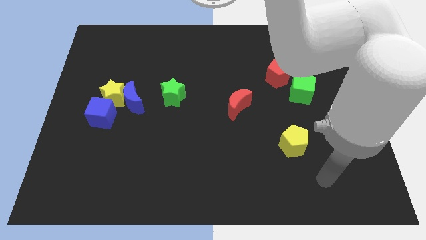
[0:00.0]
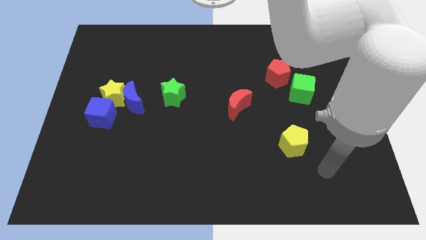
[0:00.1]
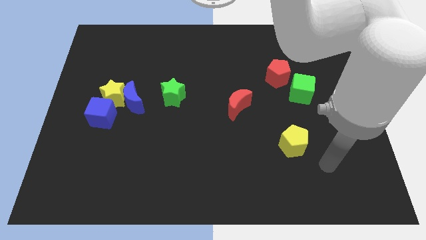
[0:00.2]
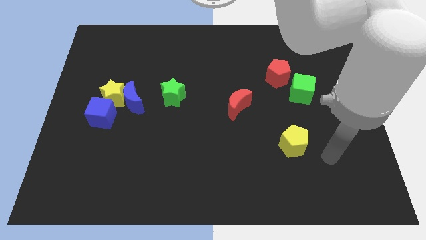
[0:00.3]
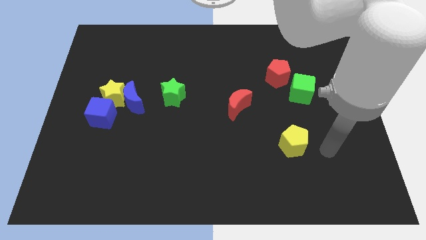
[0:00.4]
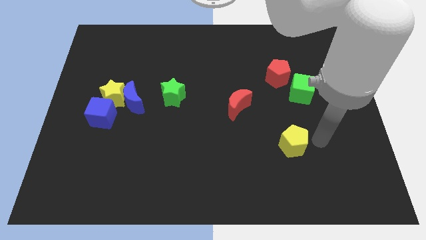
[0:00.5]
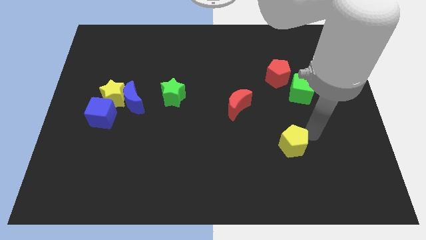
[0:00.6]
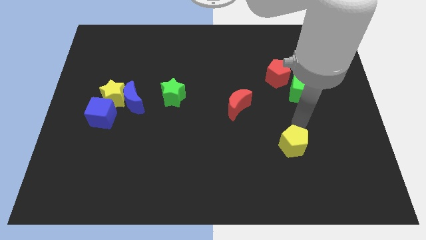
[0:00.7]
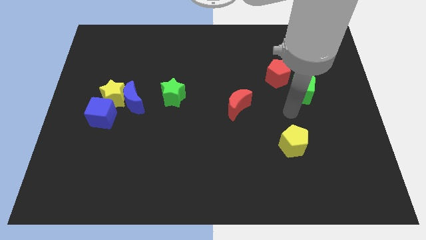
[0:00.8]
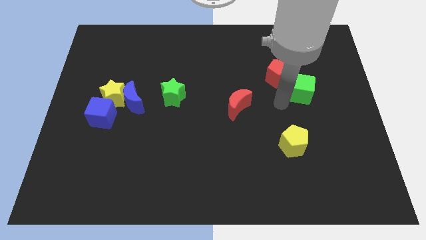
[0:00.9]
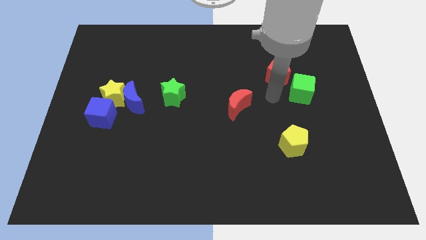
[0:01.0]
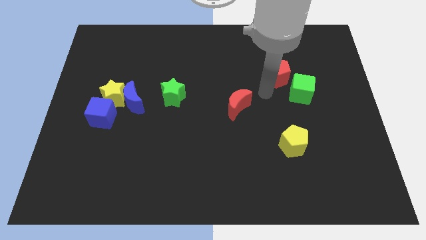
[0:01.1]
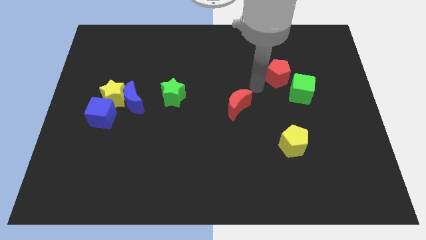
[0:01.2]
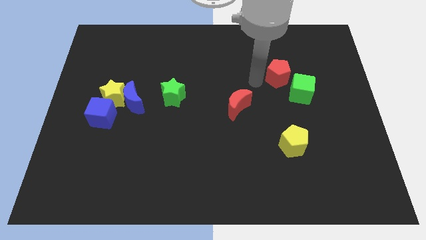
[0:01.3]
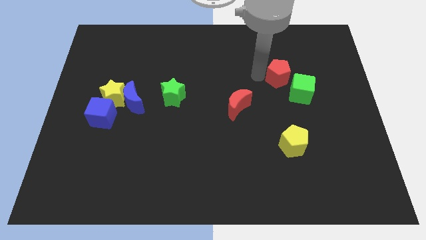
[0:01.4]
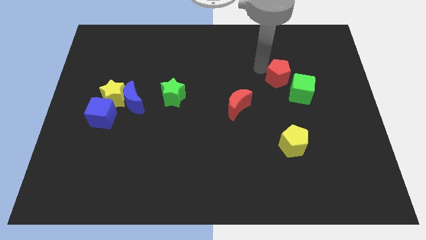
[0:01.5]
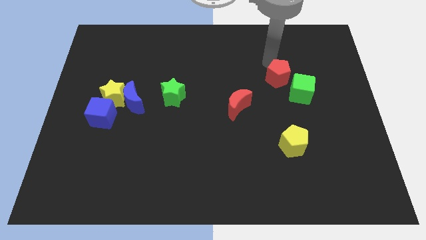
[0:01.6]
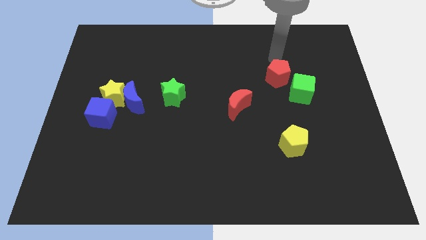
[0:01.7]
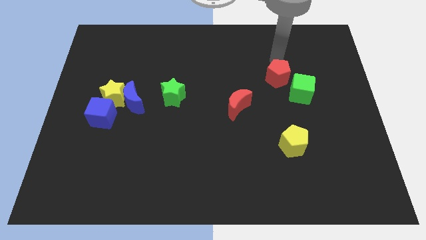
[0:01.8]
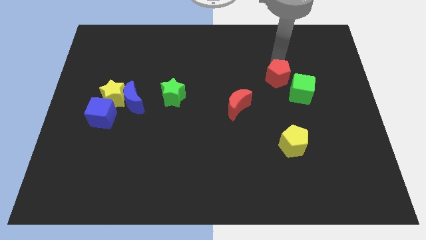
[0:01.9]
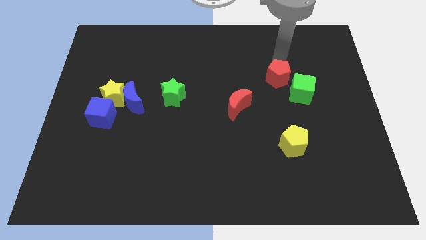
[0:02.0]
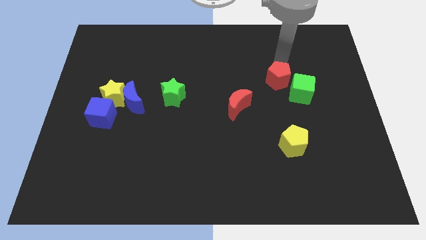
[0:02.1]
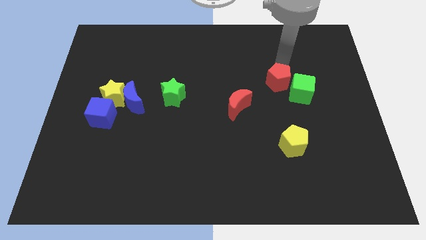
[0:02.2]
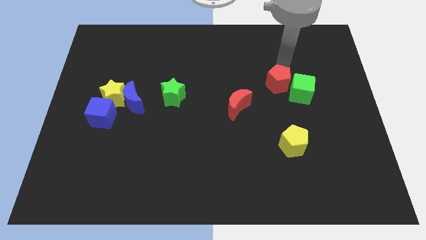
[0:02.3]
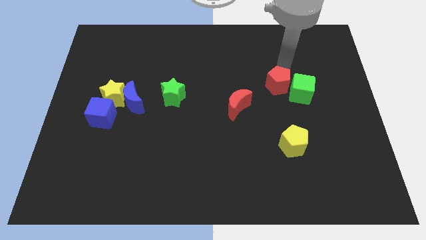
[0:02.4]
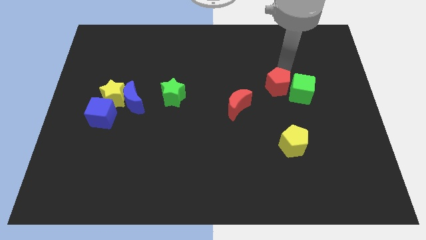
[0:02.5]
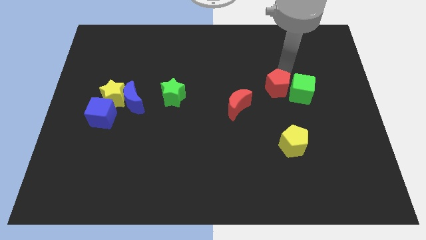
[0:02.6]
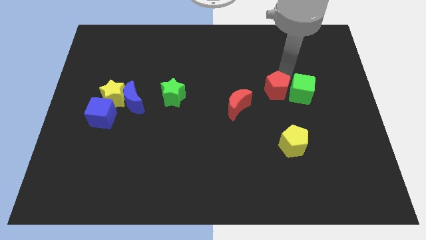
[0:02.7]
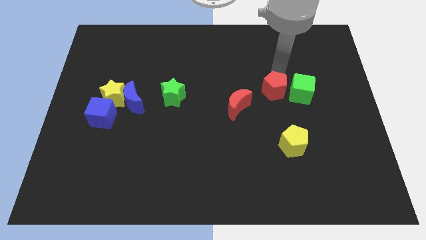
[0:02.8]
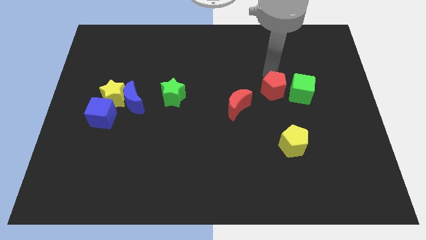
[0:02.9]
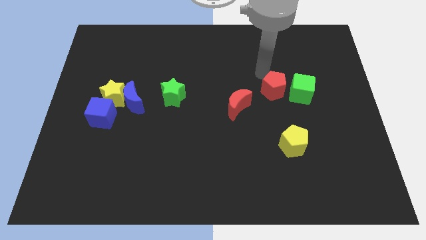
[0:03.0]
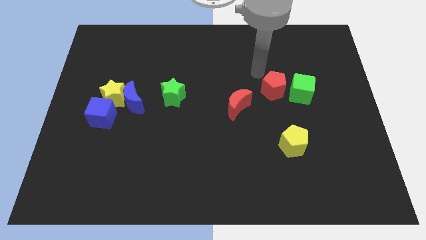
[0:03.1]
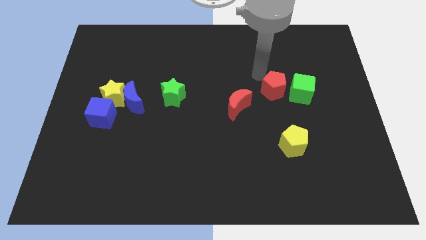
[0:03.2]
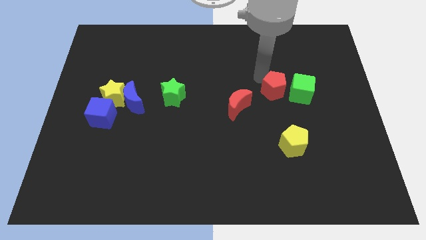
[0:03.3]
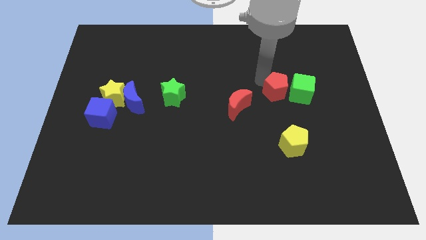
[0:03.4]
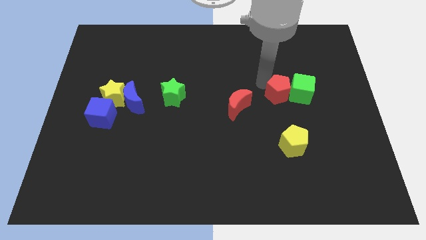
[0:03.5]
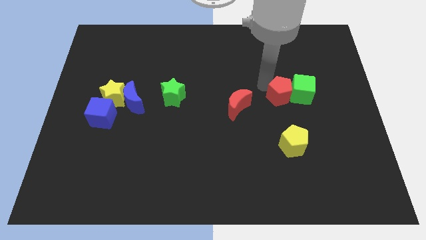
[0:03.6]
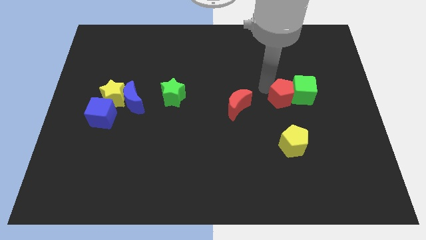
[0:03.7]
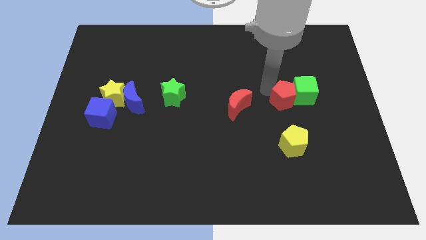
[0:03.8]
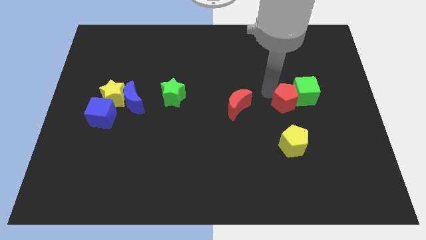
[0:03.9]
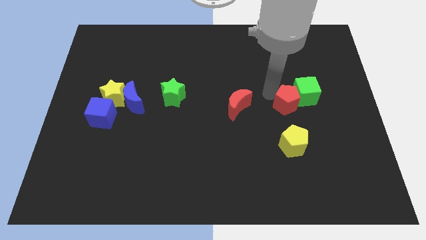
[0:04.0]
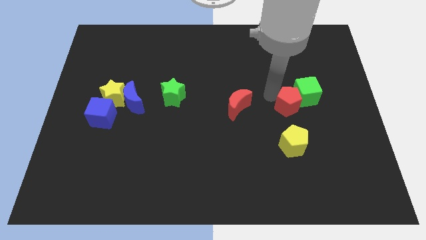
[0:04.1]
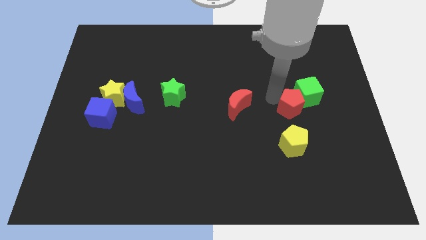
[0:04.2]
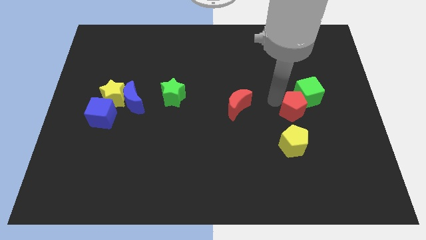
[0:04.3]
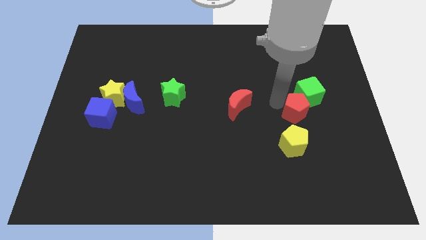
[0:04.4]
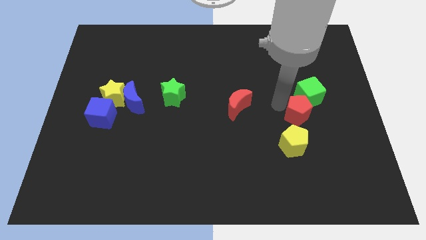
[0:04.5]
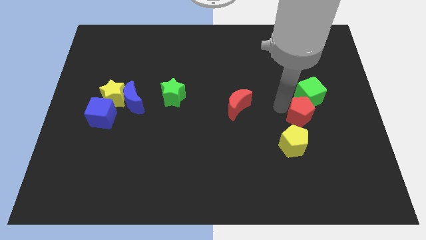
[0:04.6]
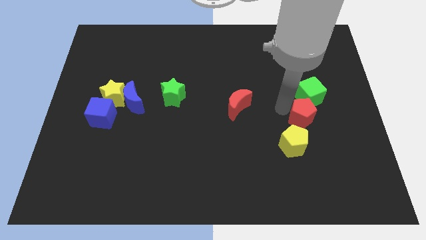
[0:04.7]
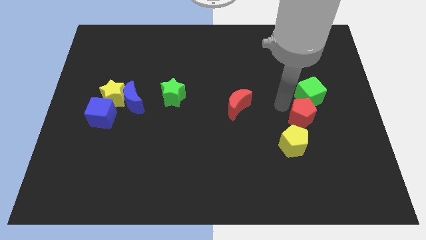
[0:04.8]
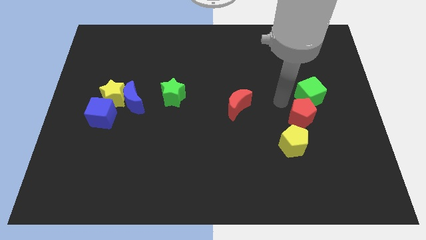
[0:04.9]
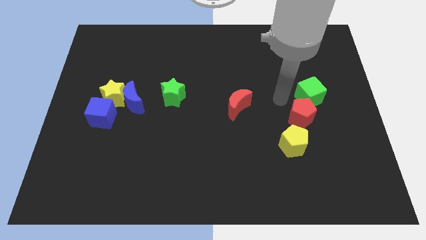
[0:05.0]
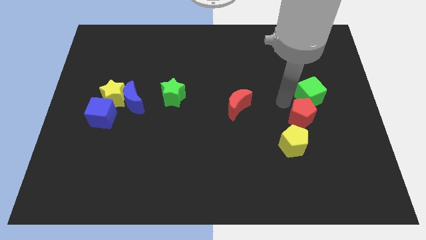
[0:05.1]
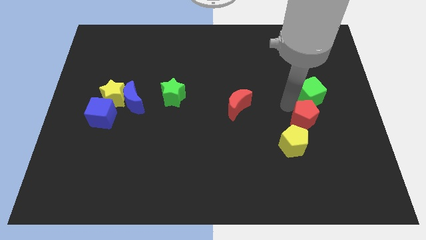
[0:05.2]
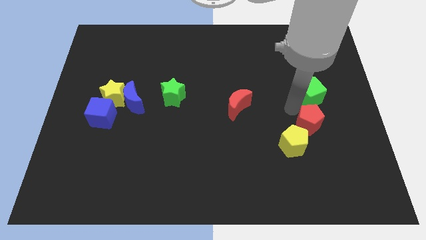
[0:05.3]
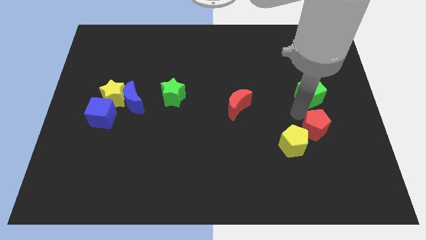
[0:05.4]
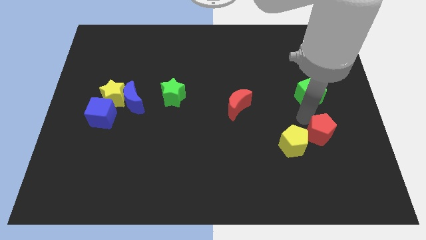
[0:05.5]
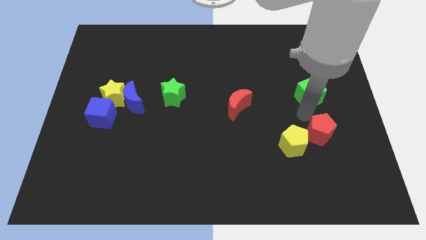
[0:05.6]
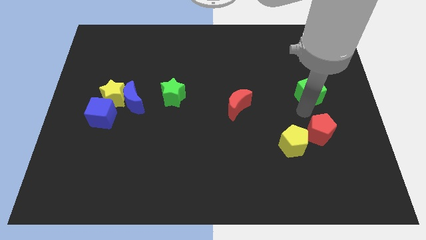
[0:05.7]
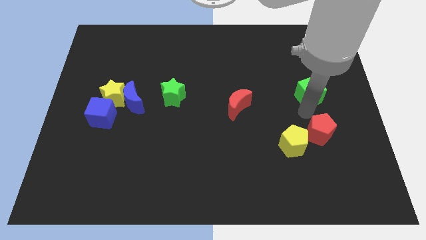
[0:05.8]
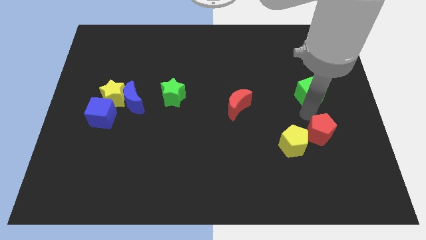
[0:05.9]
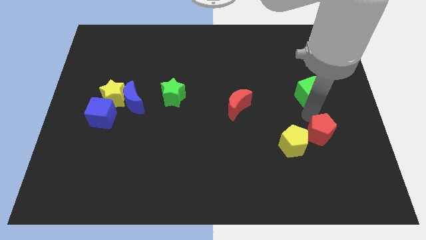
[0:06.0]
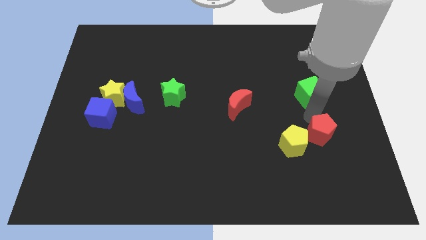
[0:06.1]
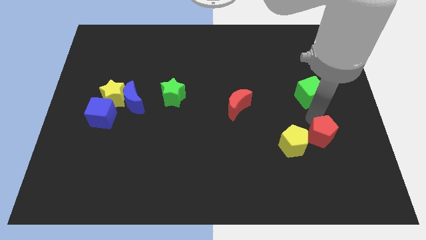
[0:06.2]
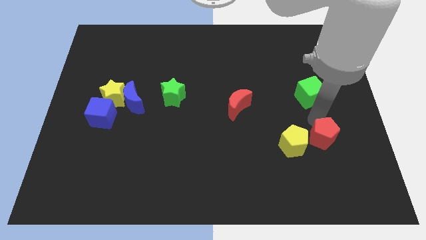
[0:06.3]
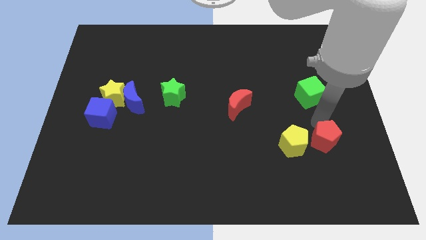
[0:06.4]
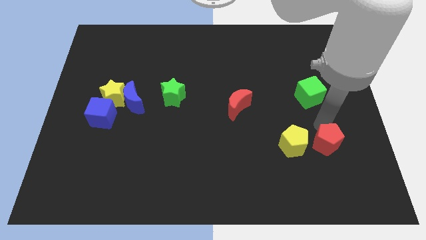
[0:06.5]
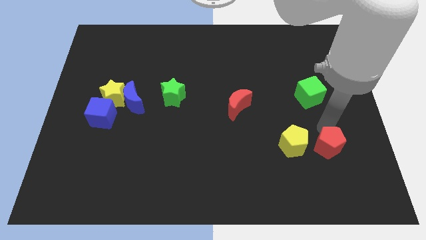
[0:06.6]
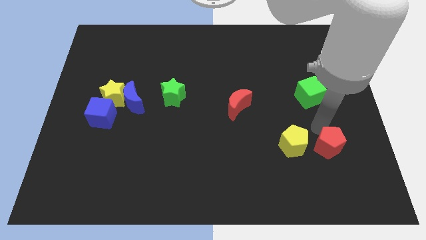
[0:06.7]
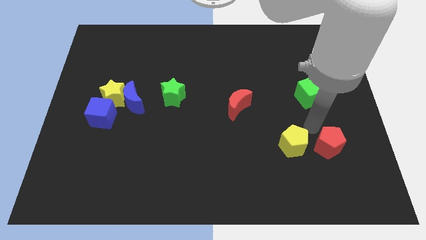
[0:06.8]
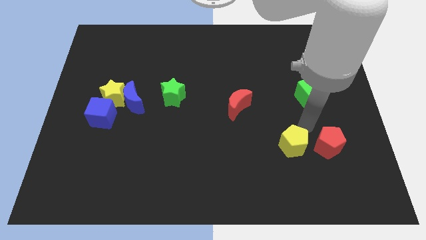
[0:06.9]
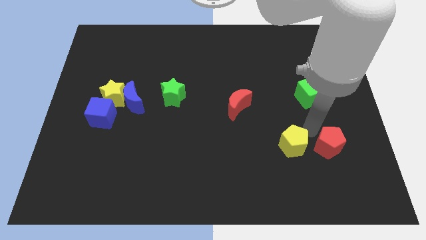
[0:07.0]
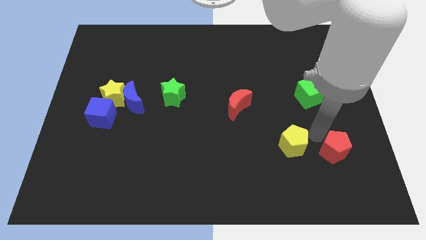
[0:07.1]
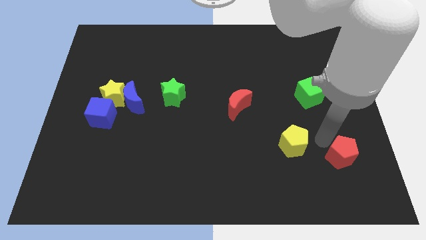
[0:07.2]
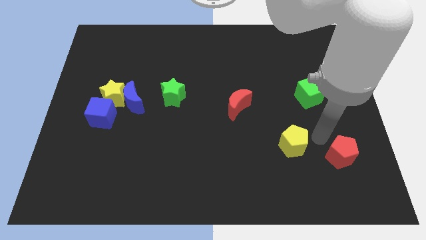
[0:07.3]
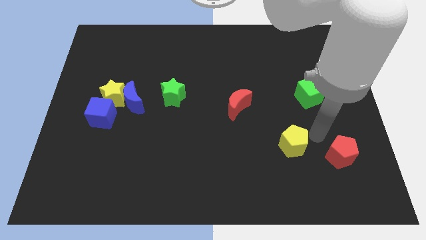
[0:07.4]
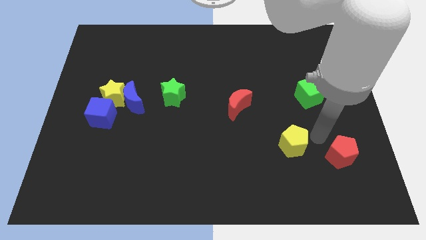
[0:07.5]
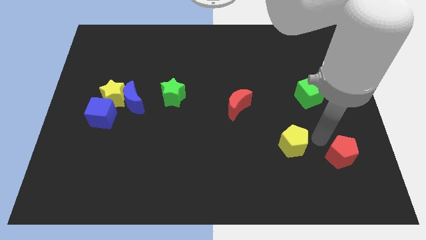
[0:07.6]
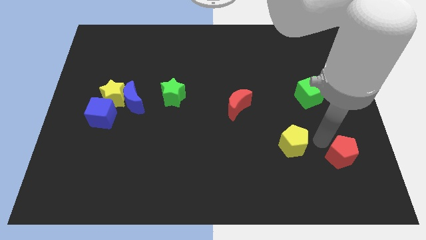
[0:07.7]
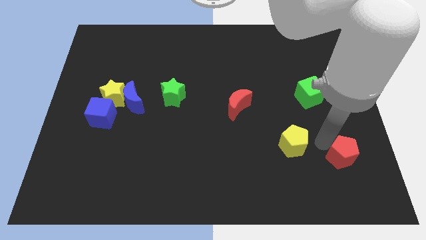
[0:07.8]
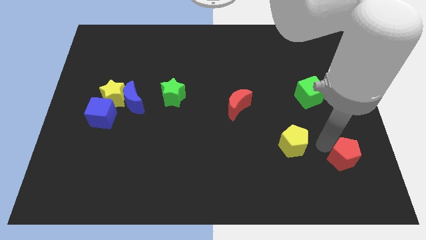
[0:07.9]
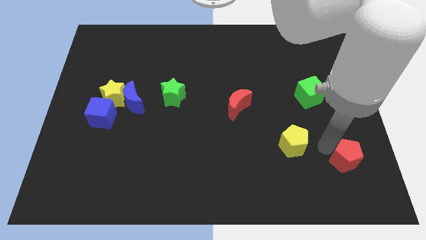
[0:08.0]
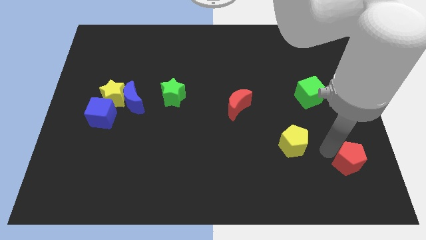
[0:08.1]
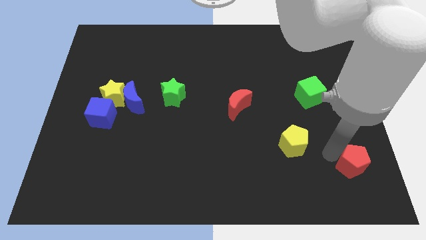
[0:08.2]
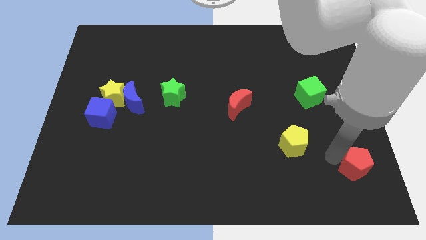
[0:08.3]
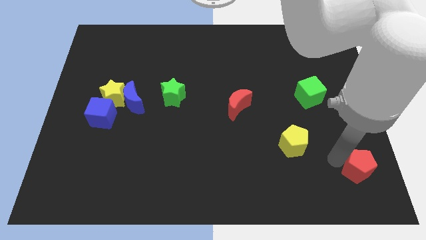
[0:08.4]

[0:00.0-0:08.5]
put the red pentagon to the bottom right
